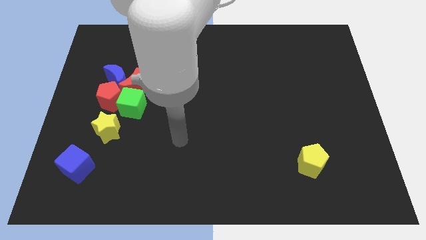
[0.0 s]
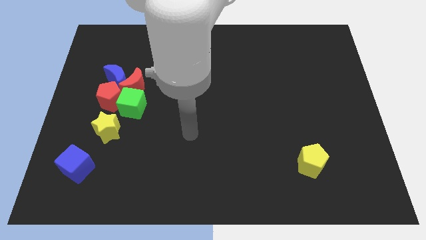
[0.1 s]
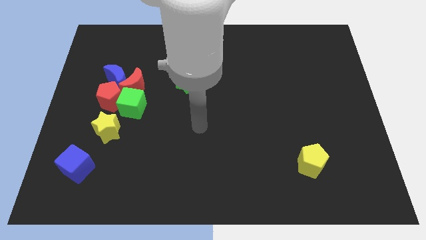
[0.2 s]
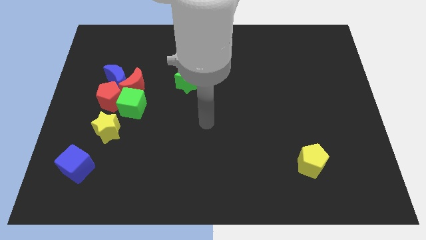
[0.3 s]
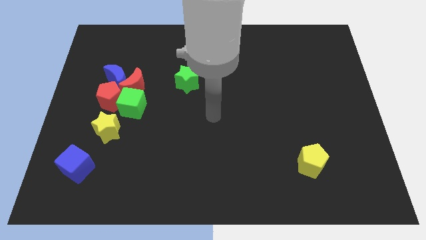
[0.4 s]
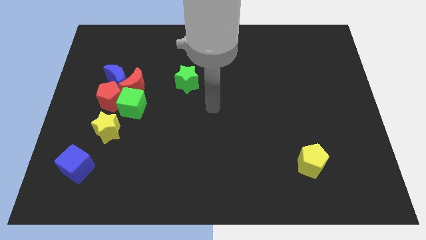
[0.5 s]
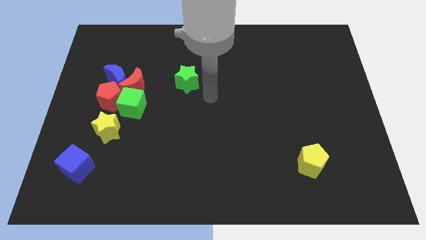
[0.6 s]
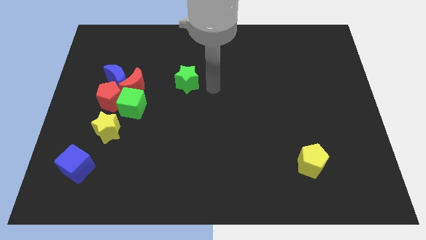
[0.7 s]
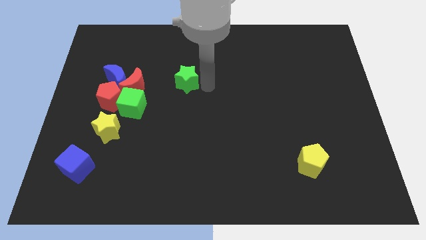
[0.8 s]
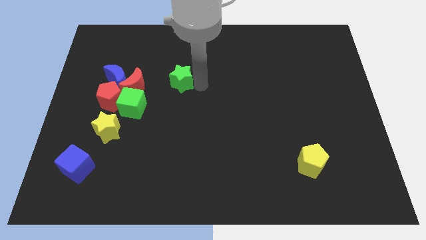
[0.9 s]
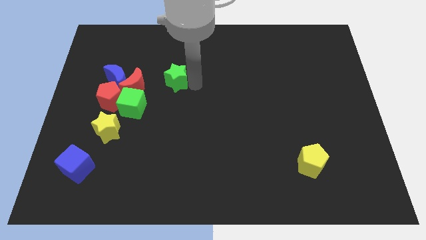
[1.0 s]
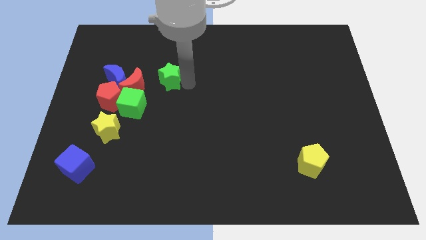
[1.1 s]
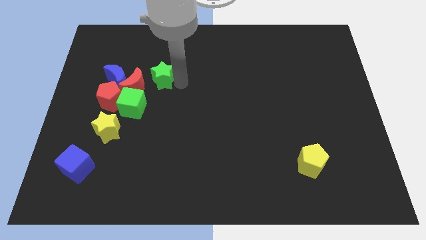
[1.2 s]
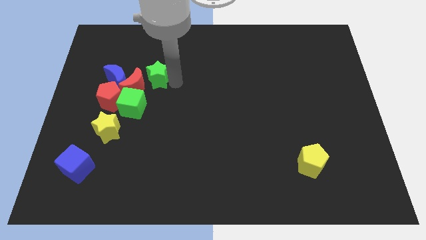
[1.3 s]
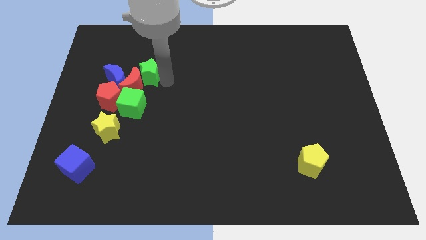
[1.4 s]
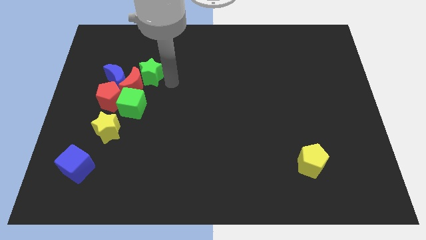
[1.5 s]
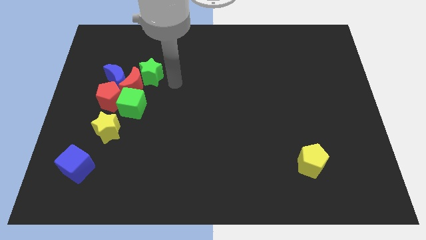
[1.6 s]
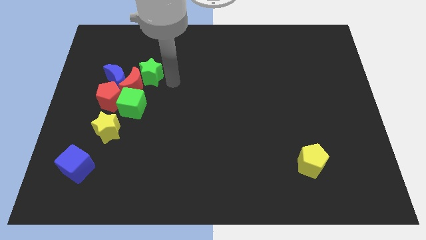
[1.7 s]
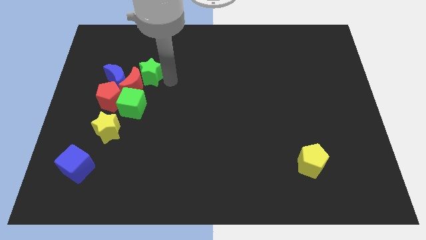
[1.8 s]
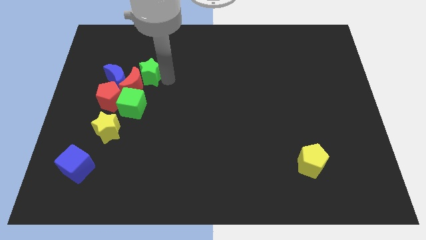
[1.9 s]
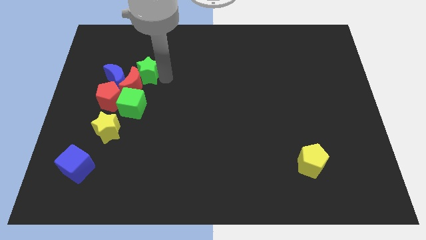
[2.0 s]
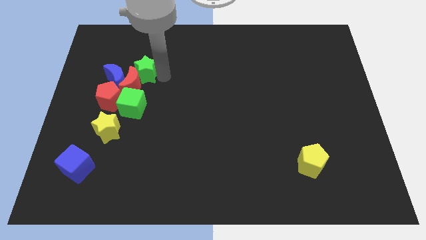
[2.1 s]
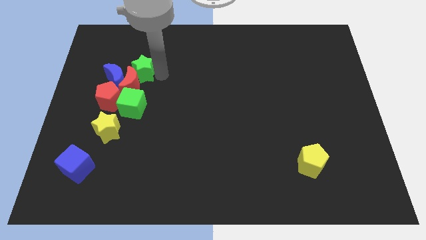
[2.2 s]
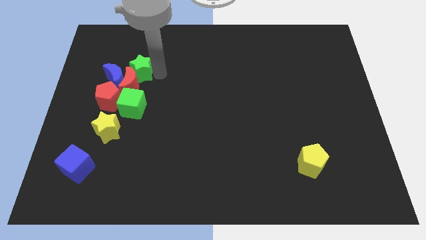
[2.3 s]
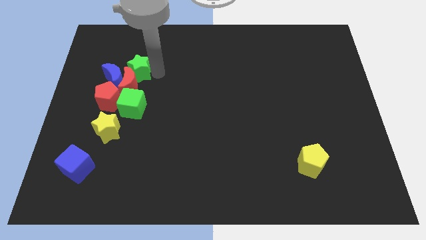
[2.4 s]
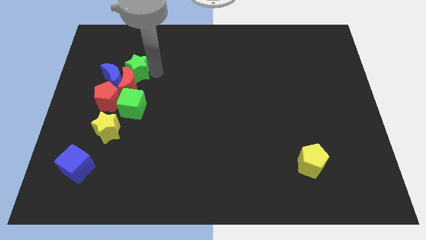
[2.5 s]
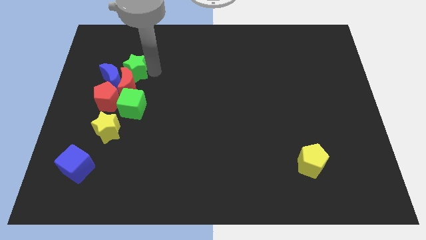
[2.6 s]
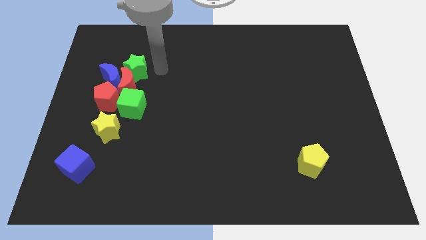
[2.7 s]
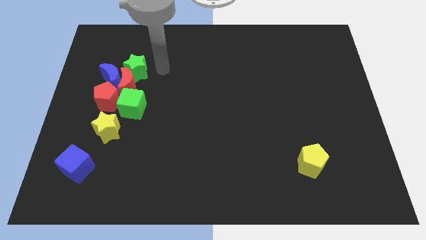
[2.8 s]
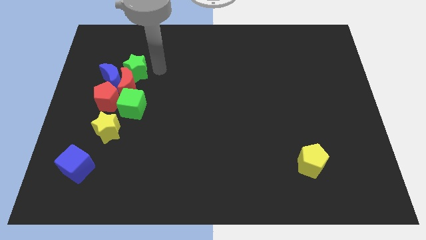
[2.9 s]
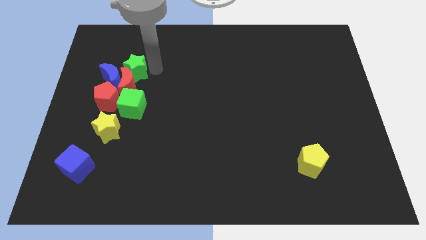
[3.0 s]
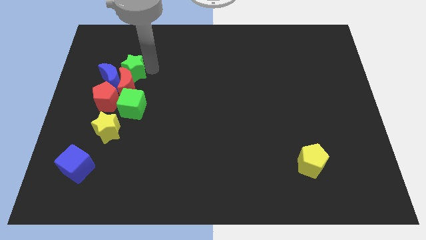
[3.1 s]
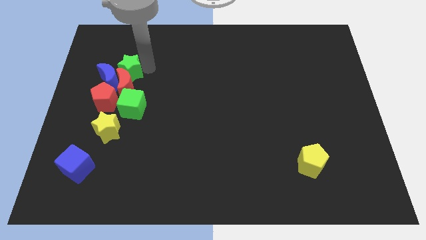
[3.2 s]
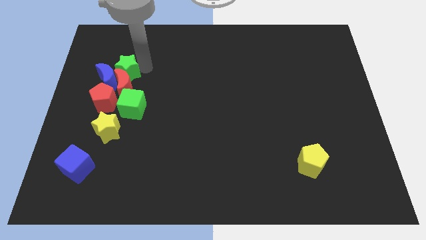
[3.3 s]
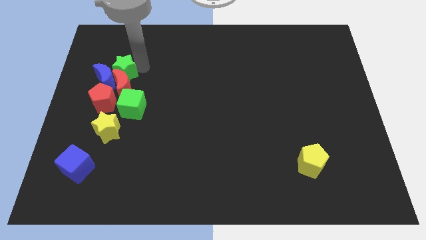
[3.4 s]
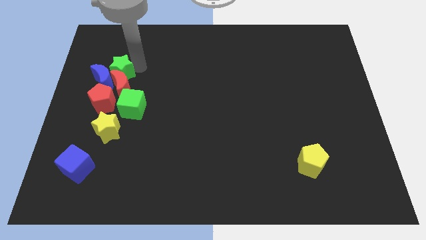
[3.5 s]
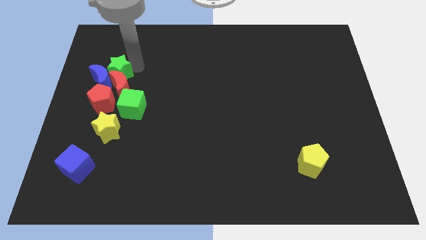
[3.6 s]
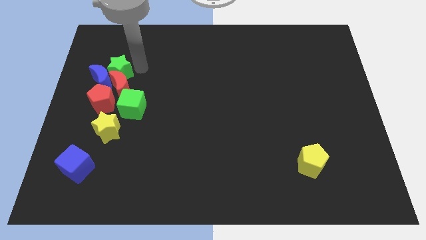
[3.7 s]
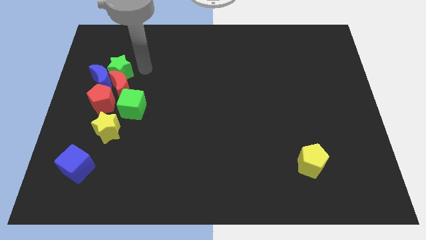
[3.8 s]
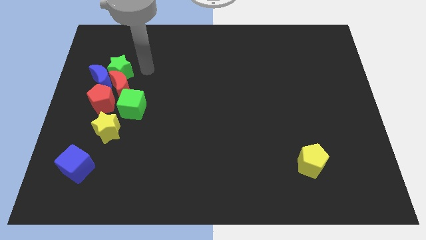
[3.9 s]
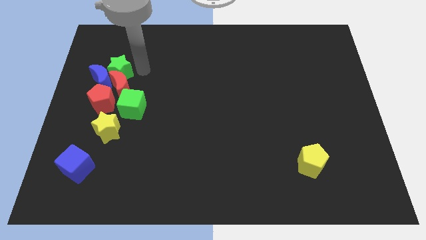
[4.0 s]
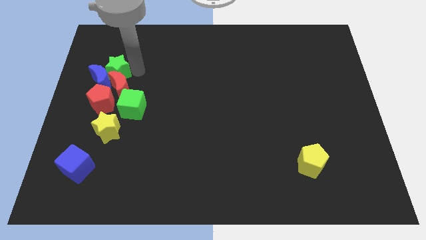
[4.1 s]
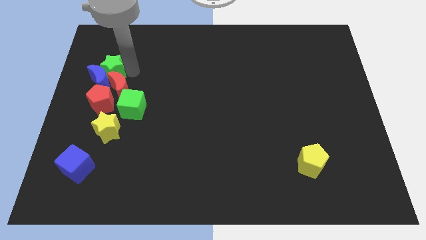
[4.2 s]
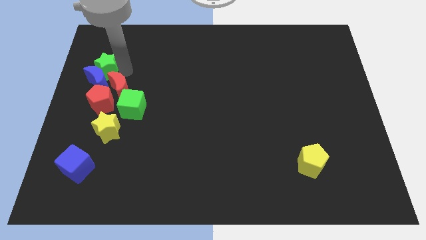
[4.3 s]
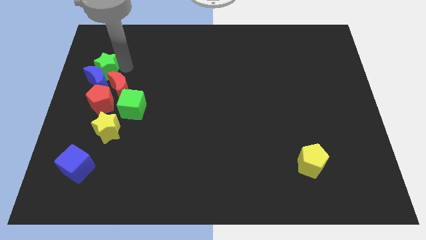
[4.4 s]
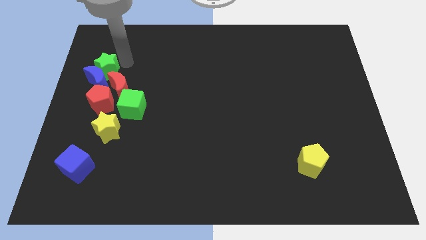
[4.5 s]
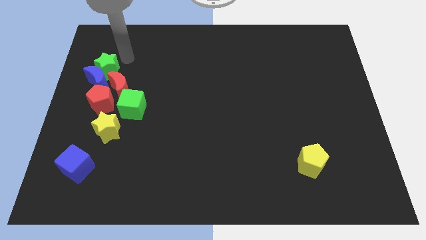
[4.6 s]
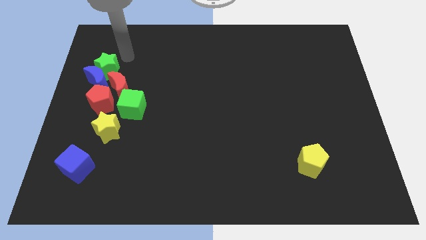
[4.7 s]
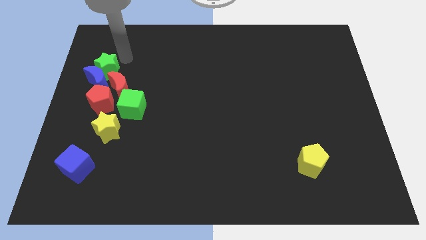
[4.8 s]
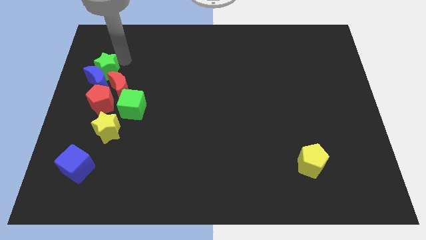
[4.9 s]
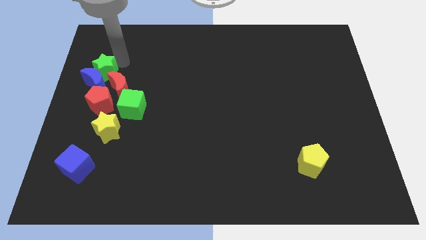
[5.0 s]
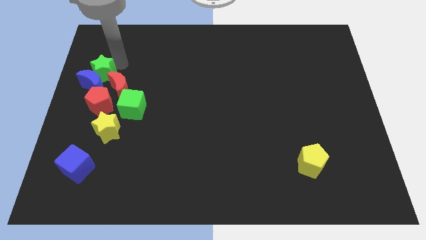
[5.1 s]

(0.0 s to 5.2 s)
slide the green star to the center left

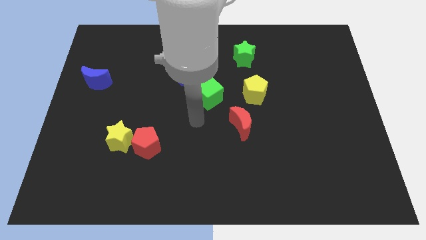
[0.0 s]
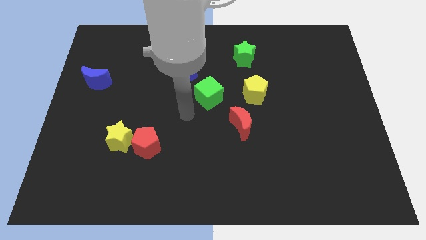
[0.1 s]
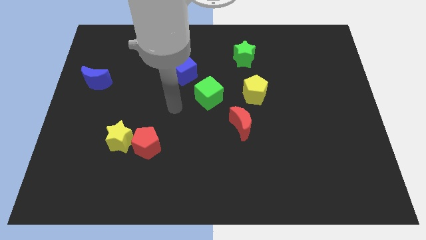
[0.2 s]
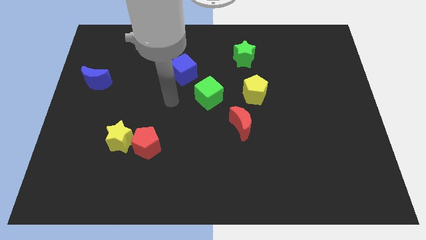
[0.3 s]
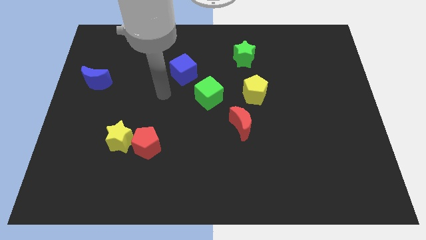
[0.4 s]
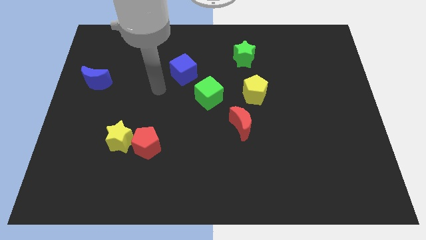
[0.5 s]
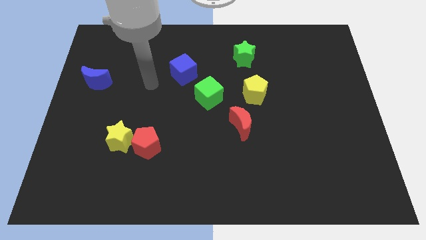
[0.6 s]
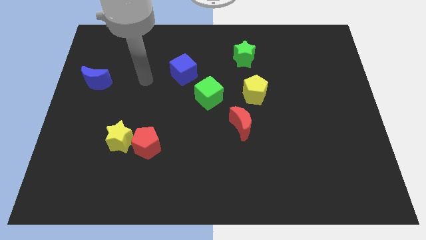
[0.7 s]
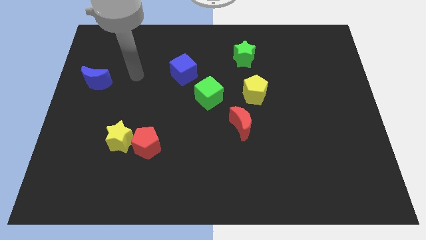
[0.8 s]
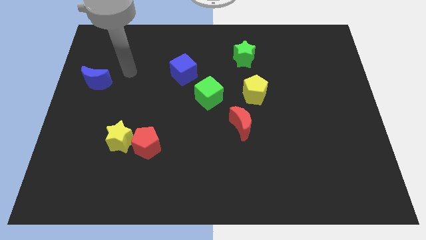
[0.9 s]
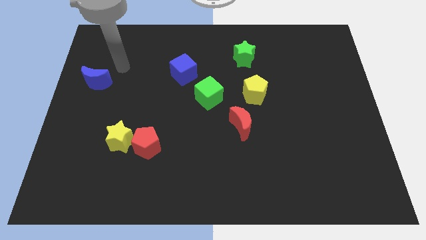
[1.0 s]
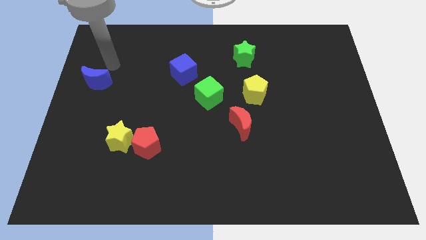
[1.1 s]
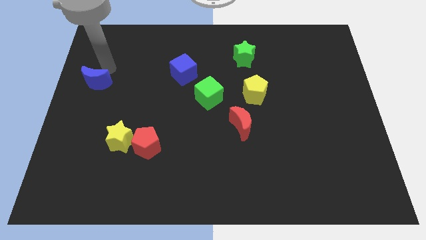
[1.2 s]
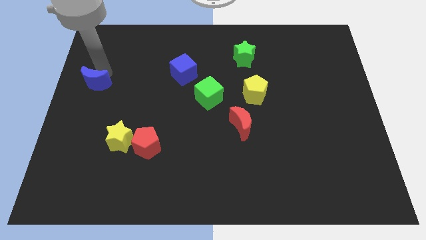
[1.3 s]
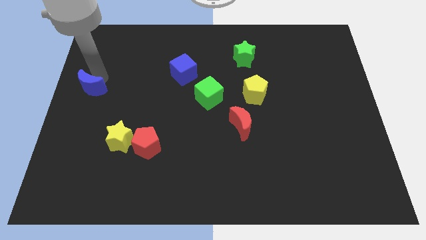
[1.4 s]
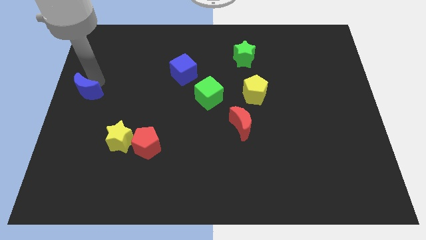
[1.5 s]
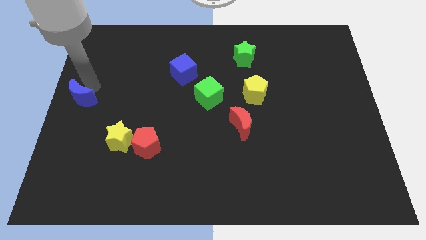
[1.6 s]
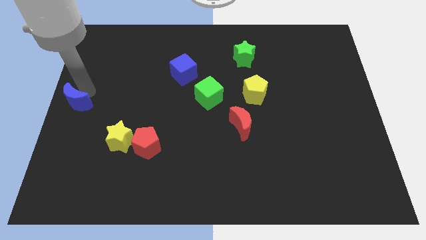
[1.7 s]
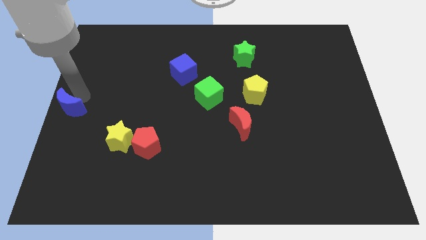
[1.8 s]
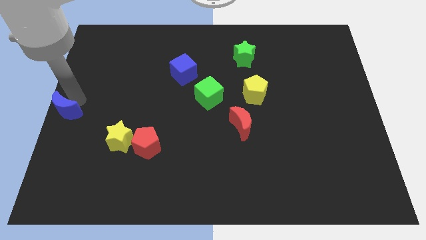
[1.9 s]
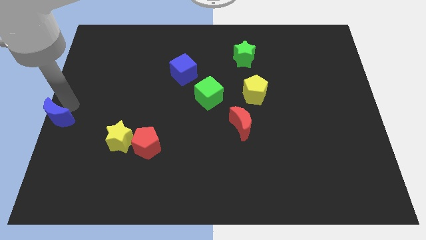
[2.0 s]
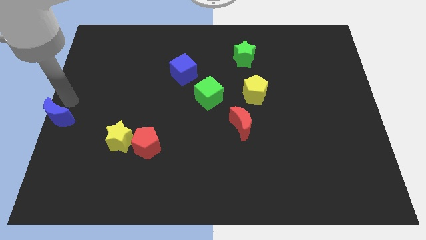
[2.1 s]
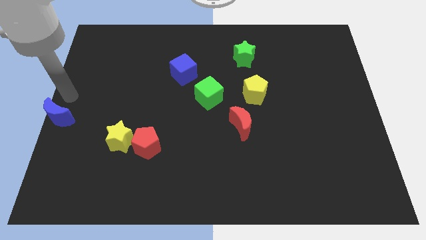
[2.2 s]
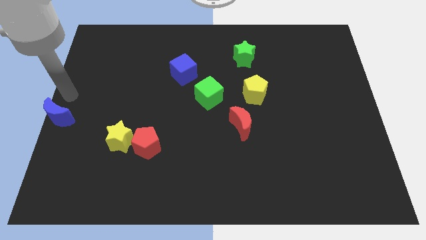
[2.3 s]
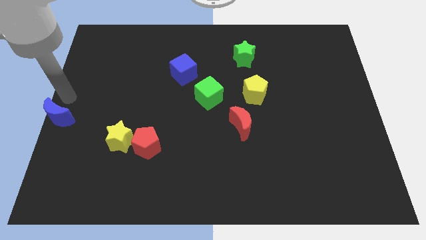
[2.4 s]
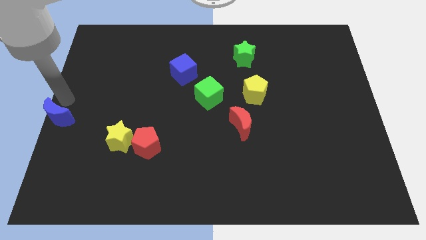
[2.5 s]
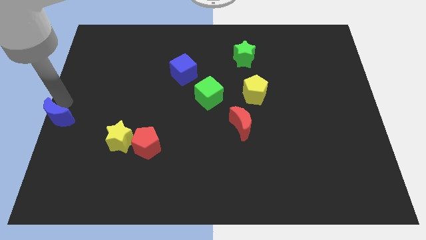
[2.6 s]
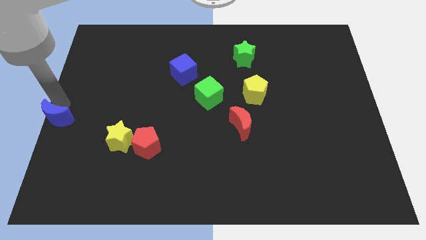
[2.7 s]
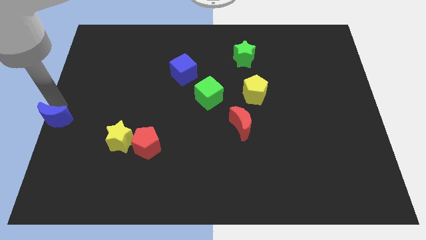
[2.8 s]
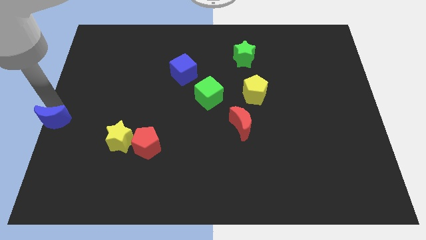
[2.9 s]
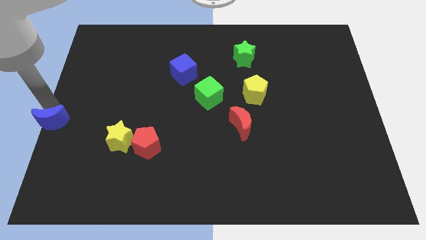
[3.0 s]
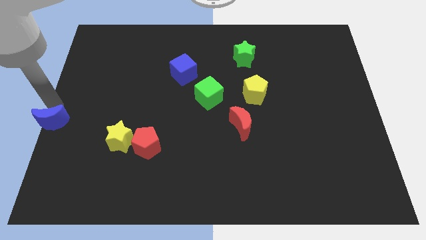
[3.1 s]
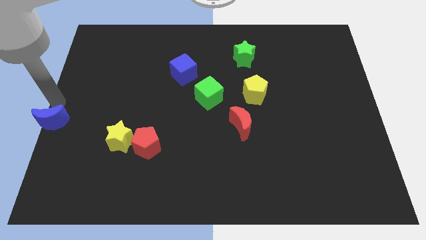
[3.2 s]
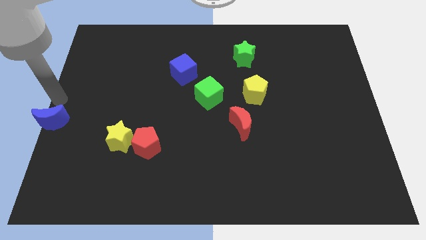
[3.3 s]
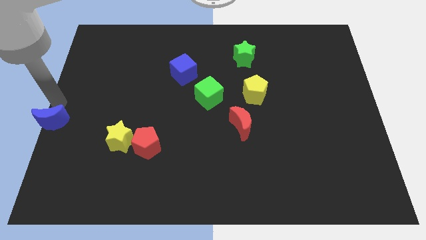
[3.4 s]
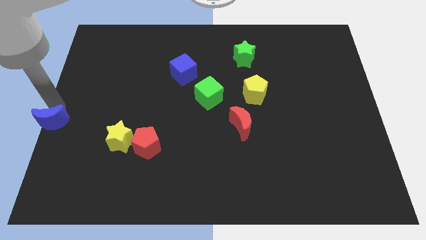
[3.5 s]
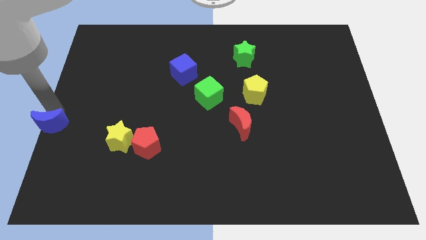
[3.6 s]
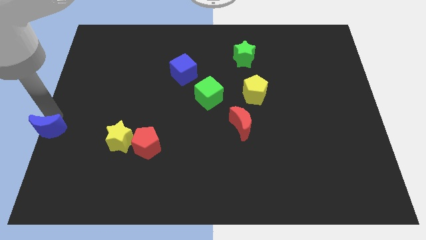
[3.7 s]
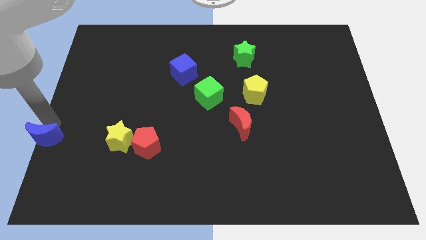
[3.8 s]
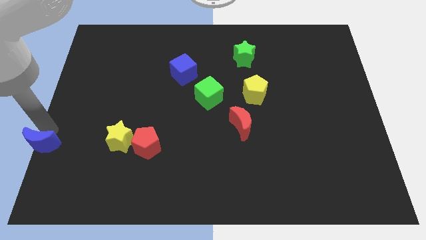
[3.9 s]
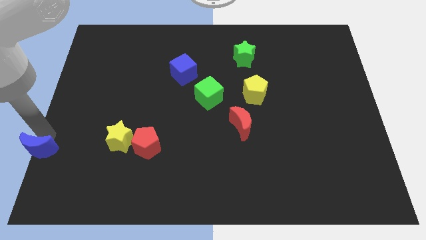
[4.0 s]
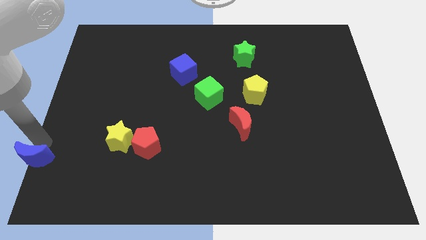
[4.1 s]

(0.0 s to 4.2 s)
put the blue moon to the lower left corner
